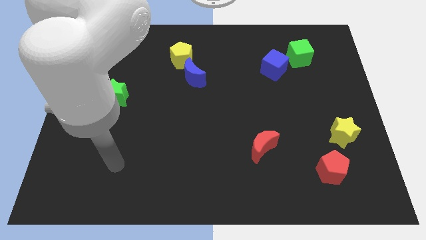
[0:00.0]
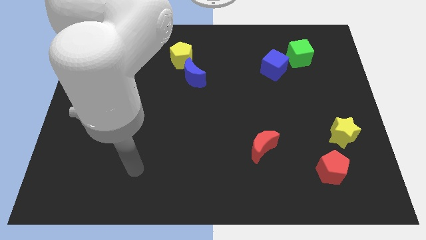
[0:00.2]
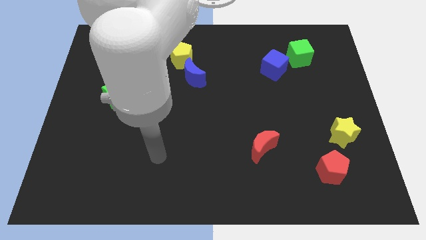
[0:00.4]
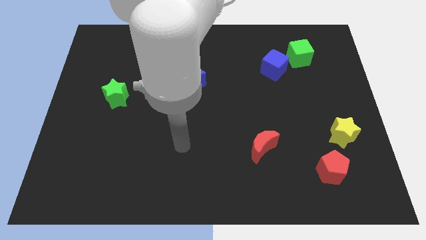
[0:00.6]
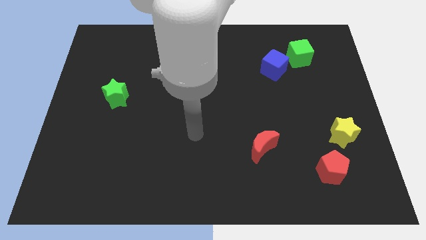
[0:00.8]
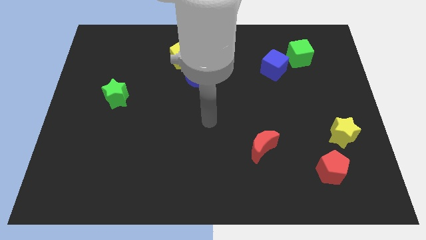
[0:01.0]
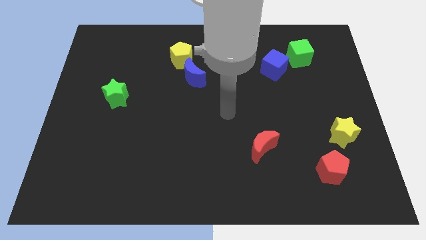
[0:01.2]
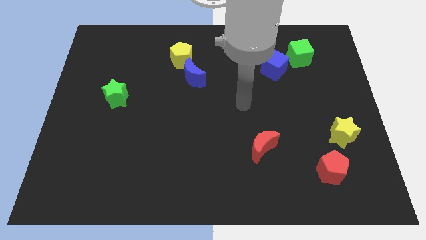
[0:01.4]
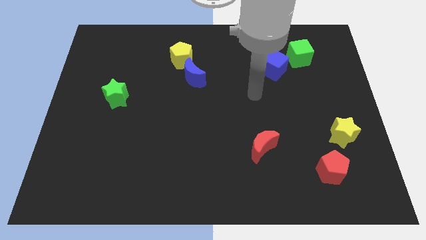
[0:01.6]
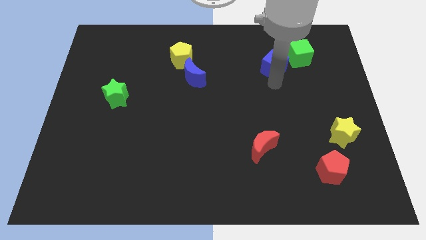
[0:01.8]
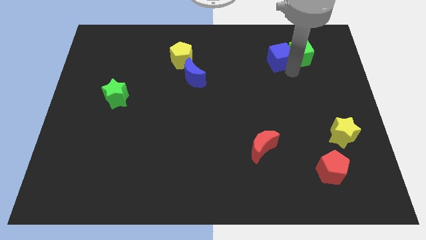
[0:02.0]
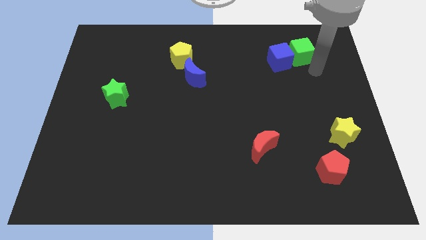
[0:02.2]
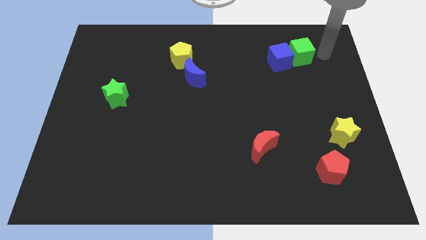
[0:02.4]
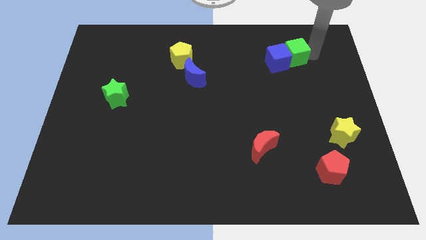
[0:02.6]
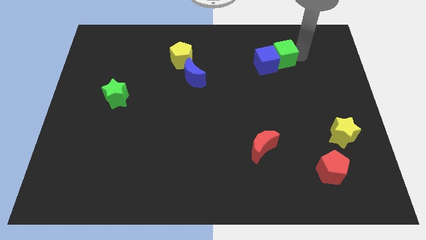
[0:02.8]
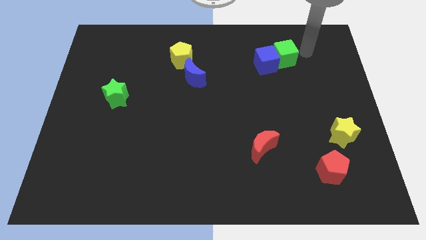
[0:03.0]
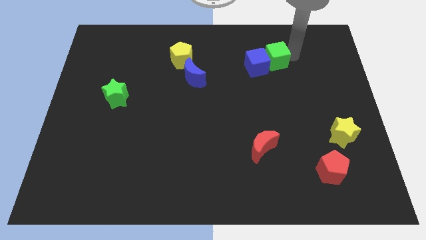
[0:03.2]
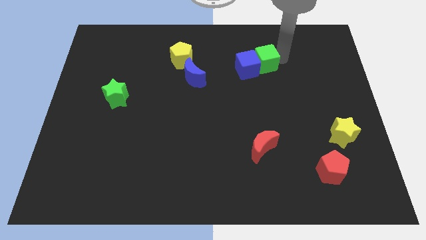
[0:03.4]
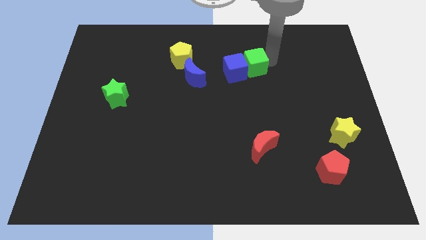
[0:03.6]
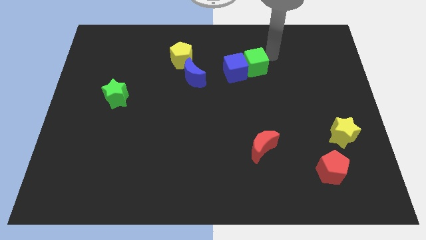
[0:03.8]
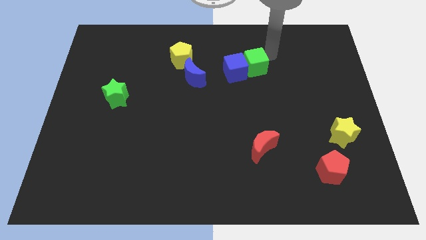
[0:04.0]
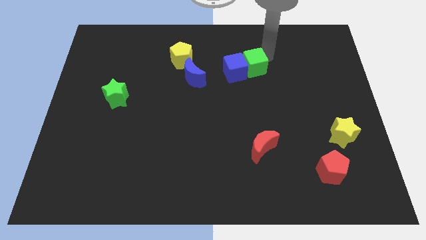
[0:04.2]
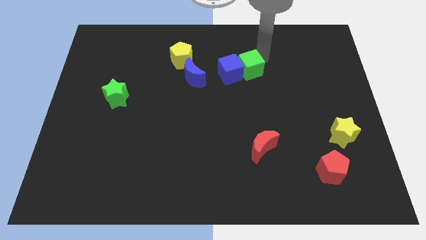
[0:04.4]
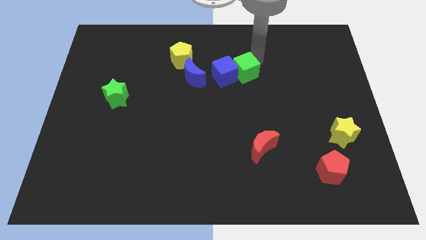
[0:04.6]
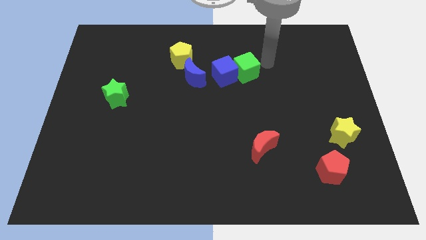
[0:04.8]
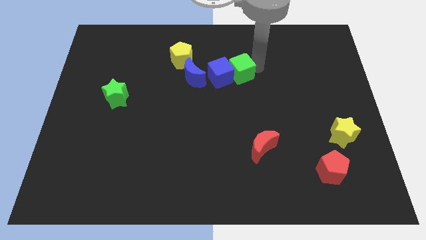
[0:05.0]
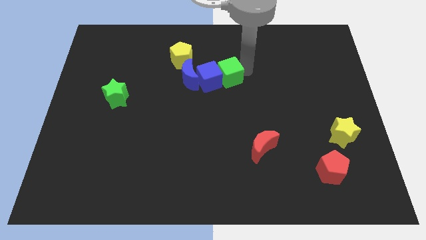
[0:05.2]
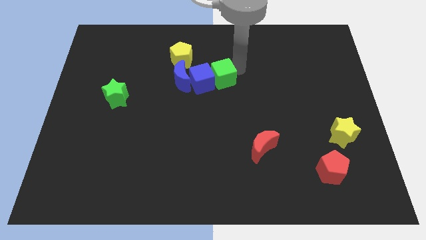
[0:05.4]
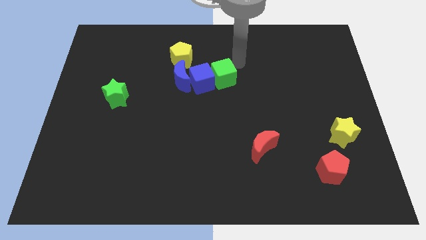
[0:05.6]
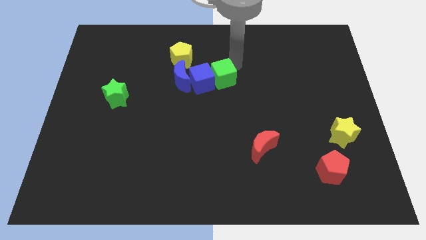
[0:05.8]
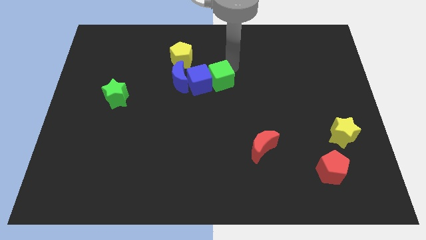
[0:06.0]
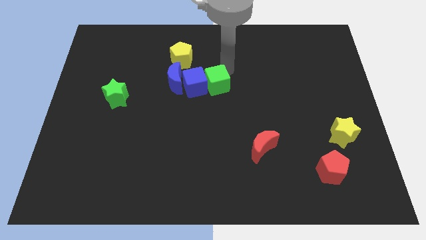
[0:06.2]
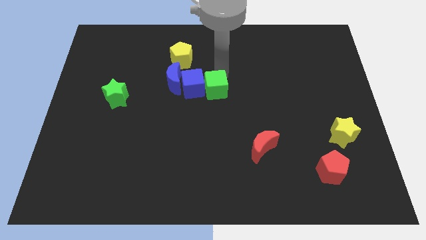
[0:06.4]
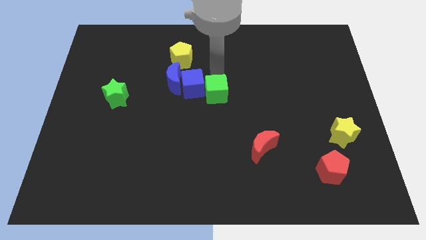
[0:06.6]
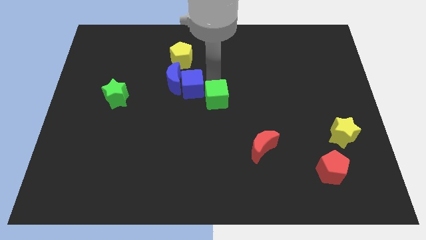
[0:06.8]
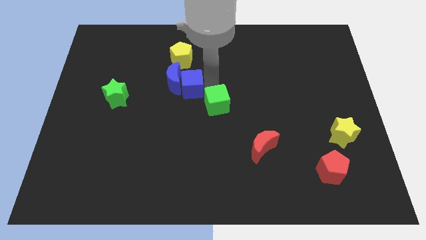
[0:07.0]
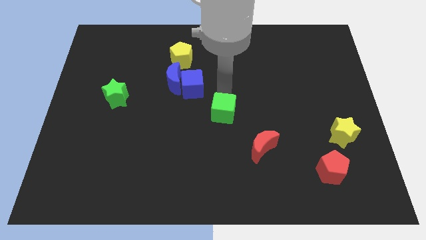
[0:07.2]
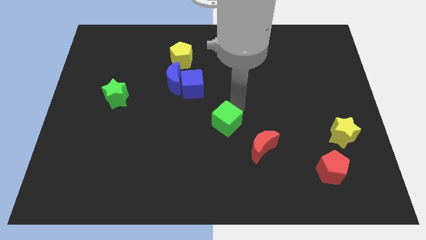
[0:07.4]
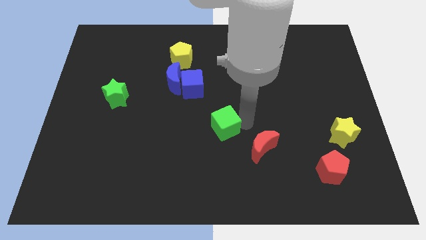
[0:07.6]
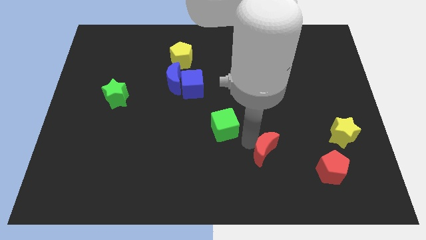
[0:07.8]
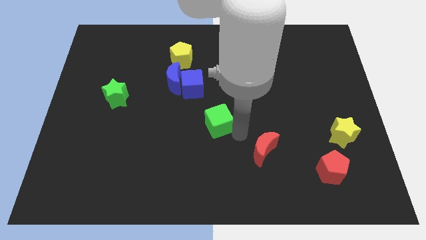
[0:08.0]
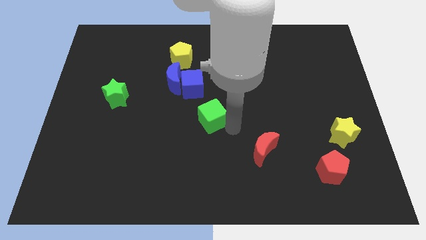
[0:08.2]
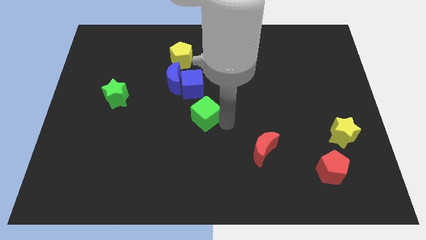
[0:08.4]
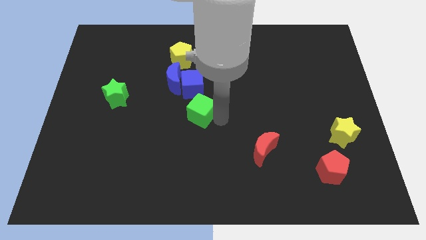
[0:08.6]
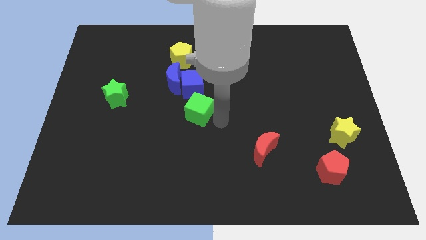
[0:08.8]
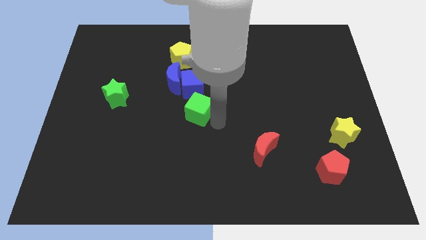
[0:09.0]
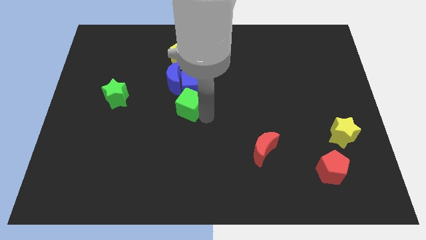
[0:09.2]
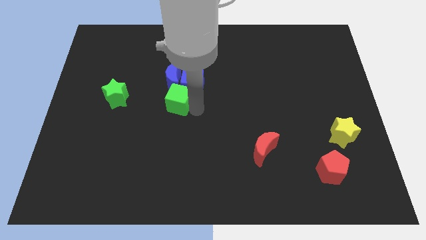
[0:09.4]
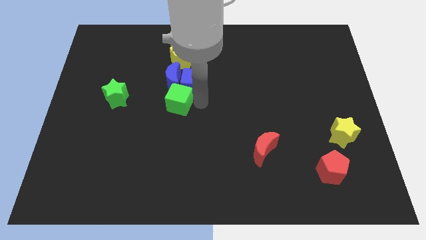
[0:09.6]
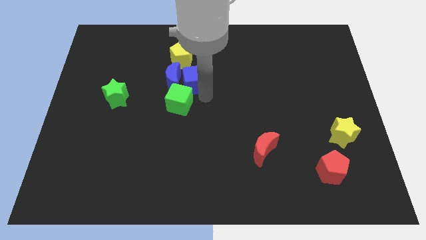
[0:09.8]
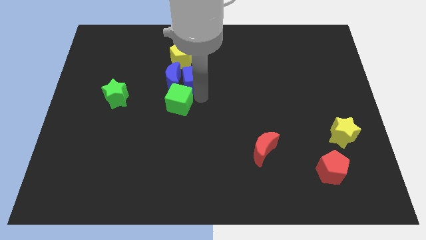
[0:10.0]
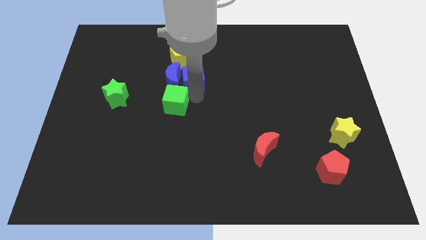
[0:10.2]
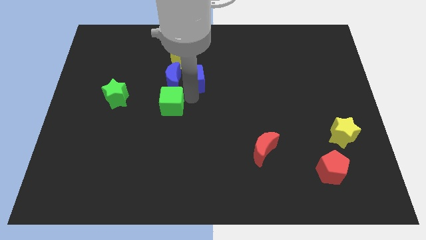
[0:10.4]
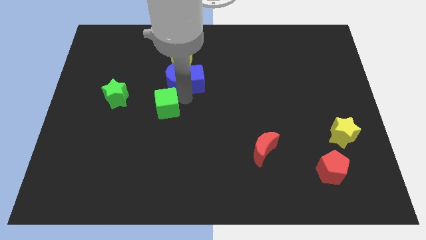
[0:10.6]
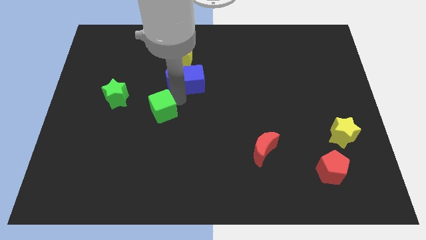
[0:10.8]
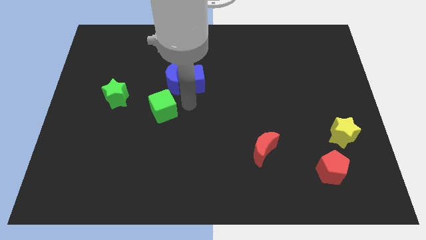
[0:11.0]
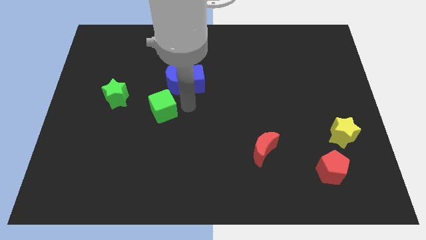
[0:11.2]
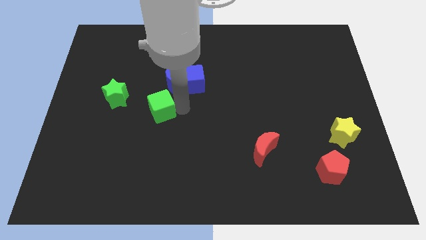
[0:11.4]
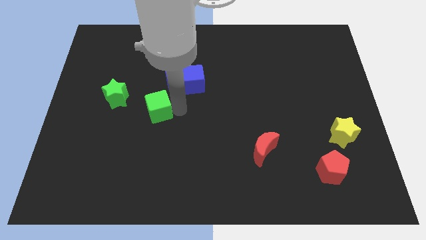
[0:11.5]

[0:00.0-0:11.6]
move the green cube to the bottom right side of the green star

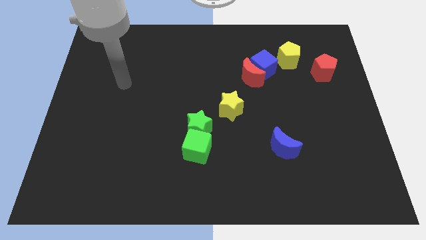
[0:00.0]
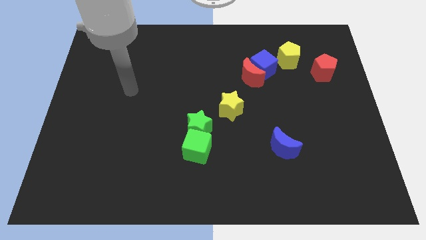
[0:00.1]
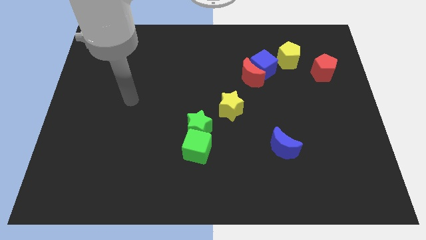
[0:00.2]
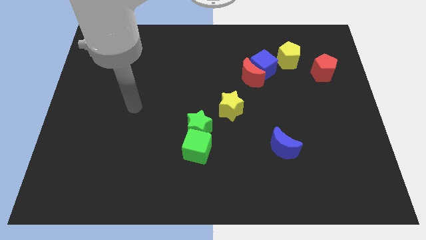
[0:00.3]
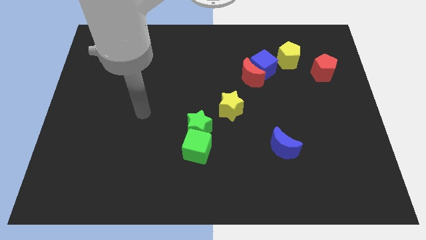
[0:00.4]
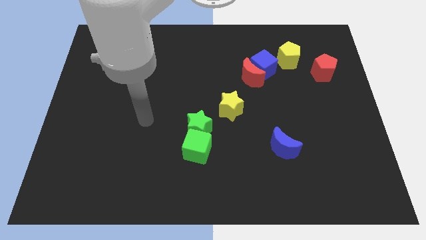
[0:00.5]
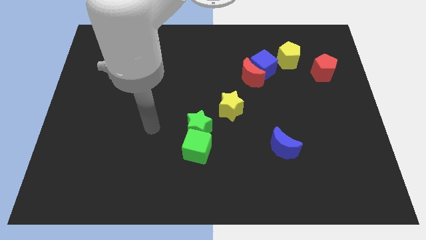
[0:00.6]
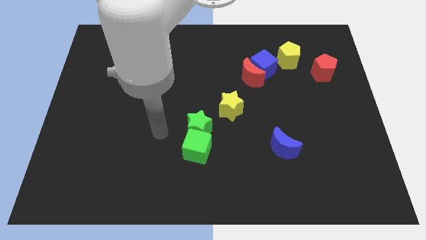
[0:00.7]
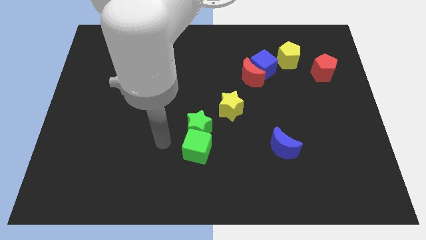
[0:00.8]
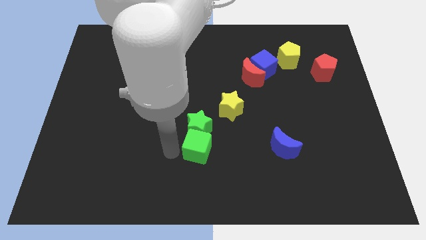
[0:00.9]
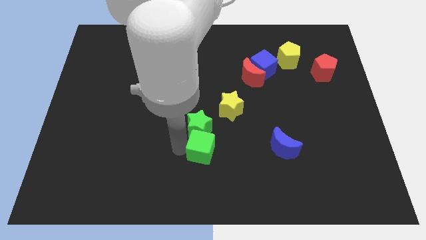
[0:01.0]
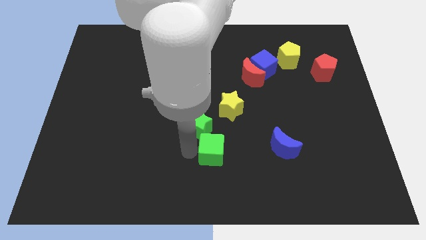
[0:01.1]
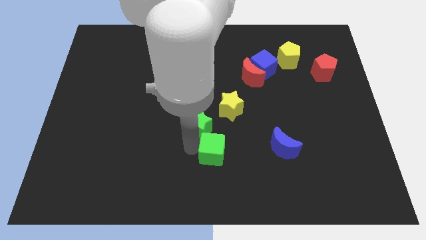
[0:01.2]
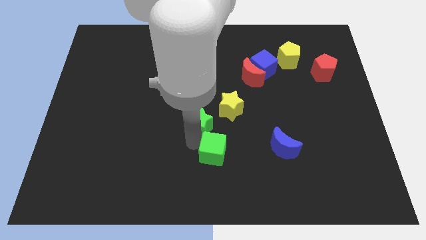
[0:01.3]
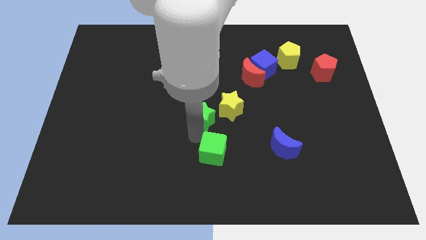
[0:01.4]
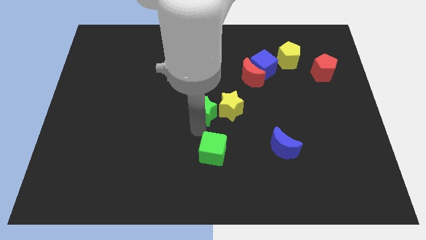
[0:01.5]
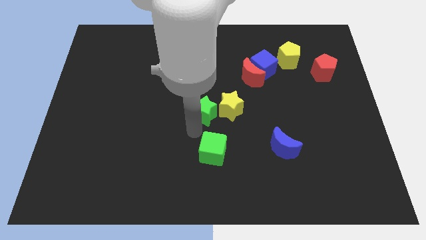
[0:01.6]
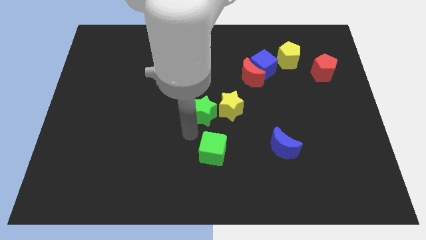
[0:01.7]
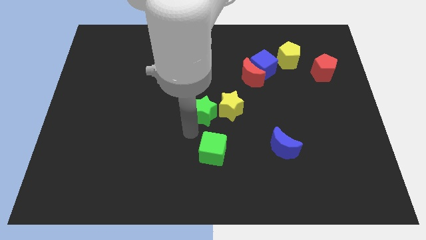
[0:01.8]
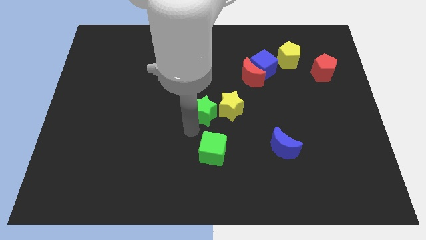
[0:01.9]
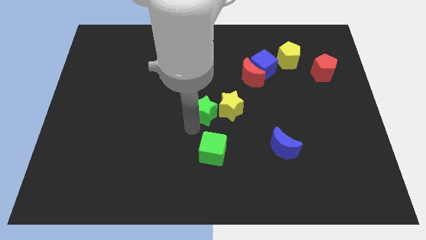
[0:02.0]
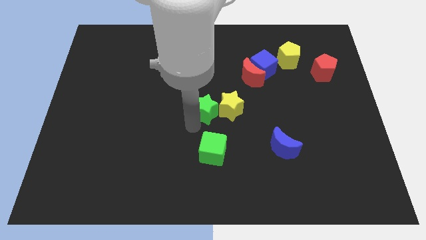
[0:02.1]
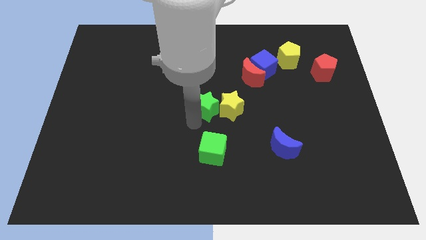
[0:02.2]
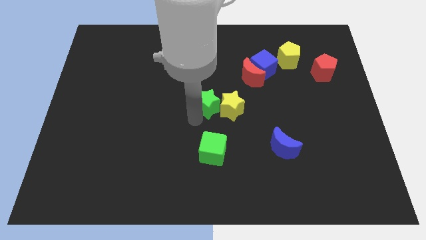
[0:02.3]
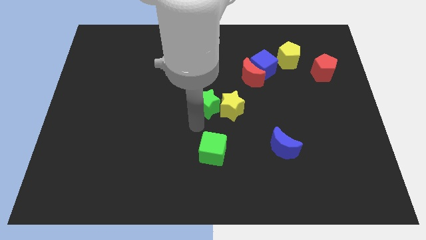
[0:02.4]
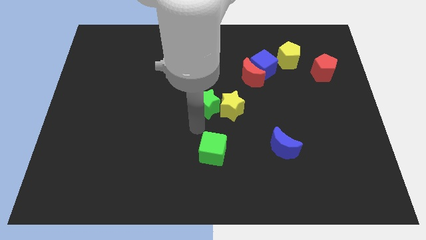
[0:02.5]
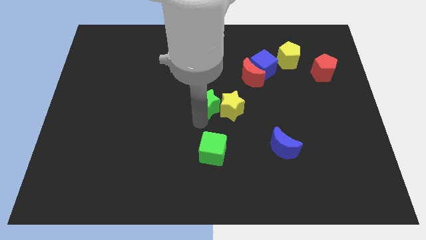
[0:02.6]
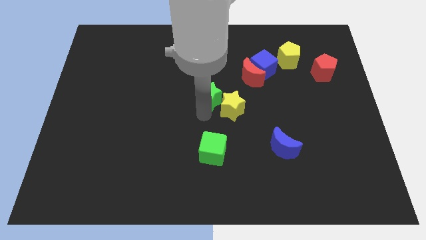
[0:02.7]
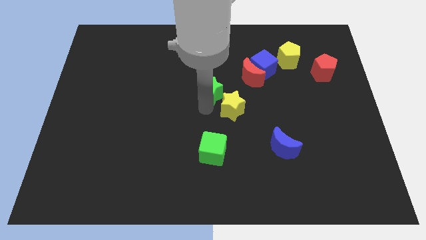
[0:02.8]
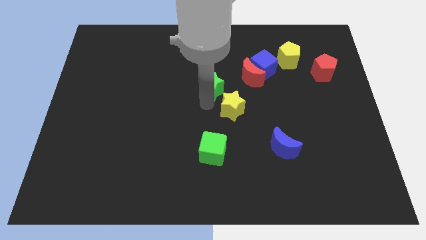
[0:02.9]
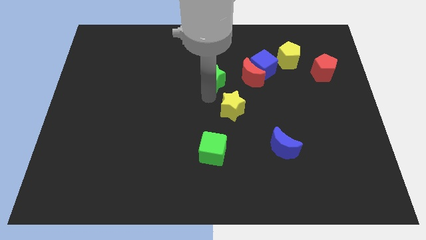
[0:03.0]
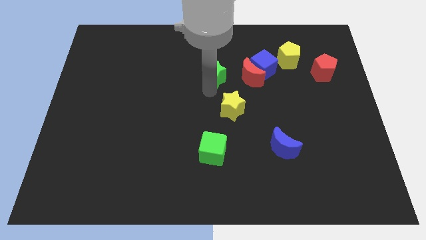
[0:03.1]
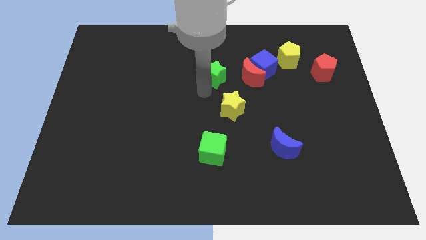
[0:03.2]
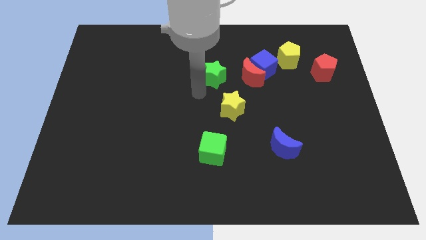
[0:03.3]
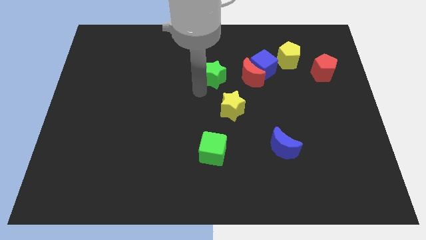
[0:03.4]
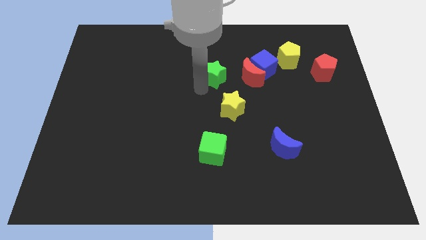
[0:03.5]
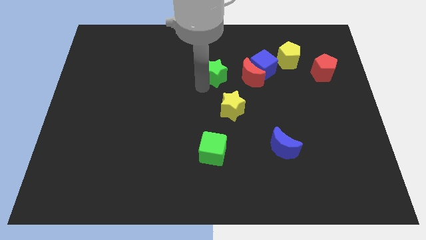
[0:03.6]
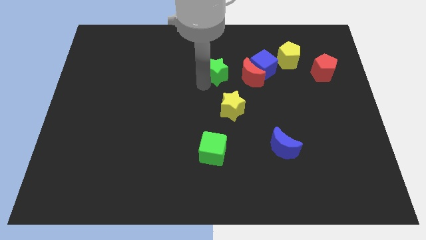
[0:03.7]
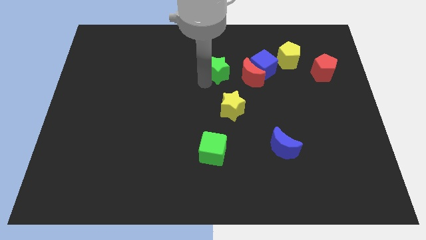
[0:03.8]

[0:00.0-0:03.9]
push the green star to the top left of the red moon
